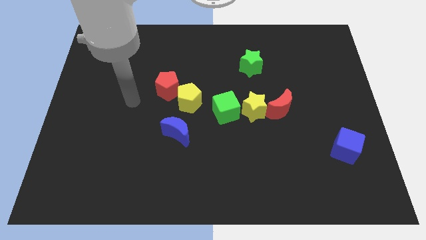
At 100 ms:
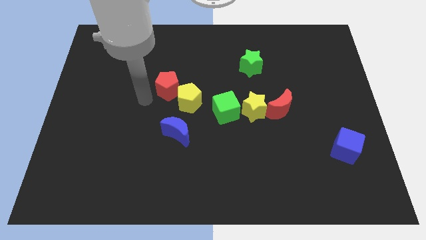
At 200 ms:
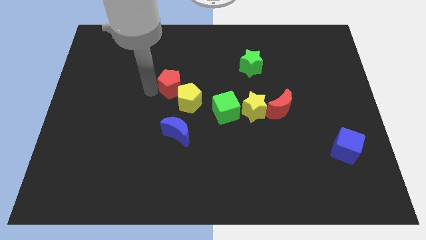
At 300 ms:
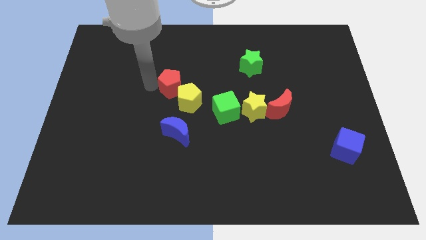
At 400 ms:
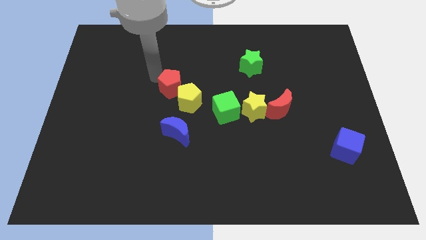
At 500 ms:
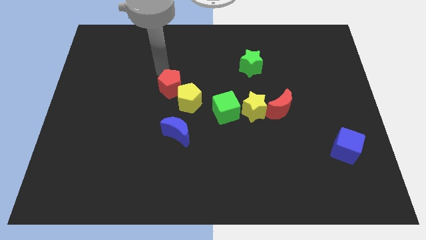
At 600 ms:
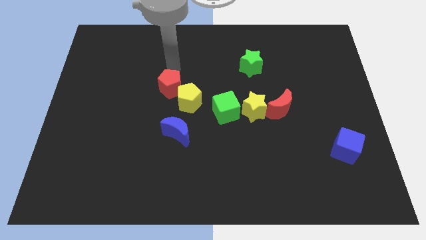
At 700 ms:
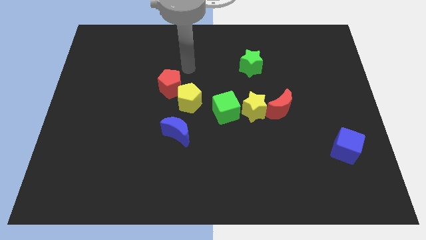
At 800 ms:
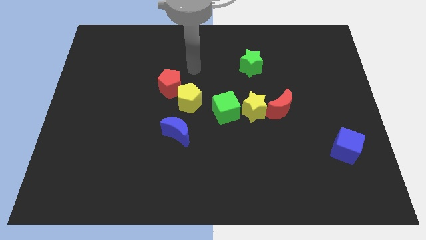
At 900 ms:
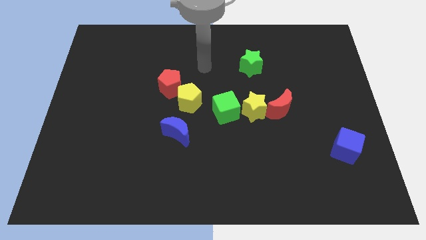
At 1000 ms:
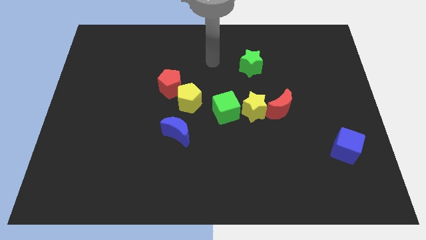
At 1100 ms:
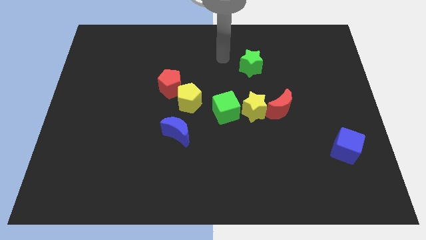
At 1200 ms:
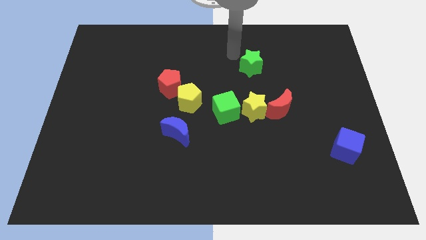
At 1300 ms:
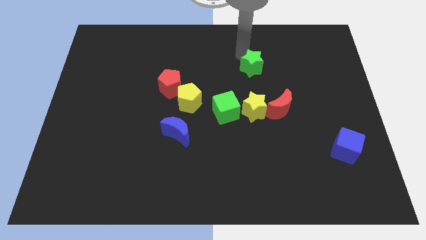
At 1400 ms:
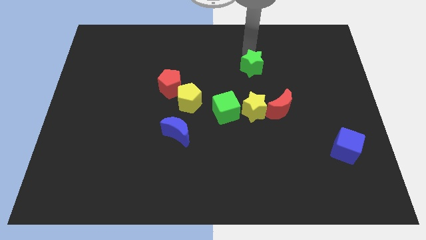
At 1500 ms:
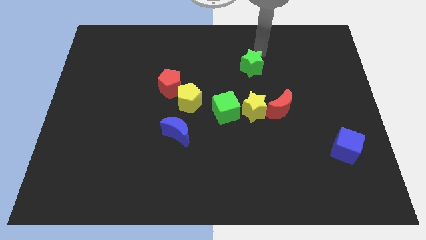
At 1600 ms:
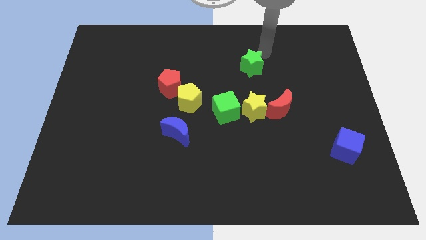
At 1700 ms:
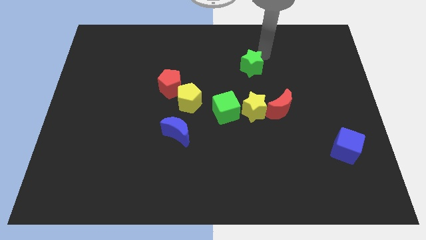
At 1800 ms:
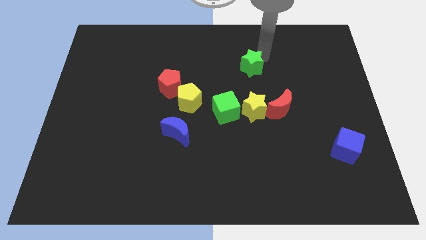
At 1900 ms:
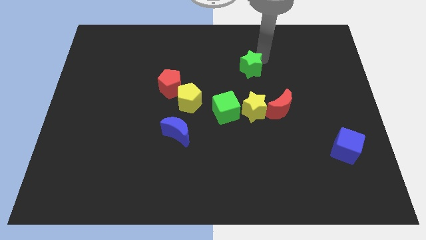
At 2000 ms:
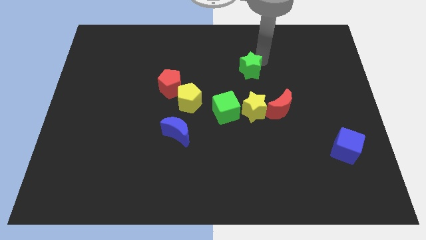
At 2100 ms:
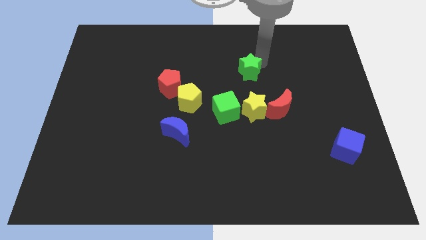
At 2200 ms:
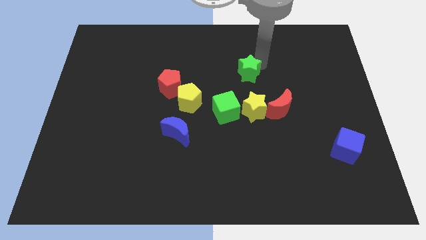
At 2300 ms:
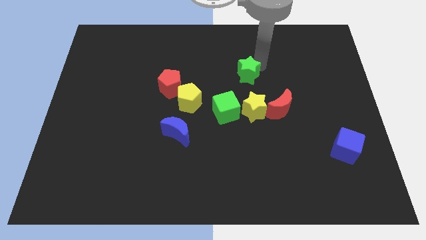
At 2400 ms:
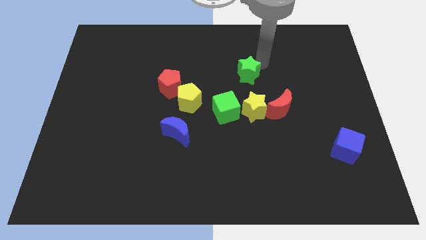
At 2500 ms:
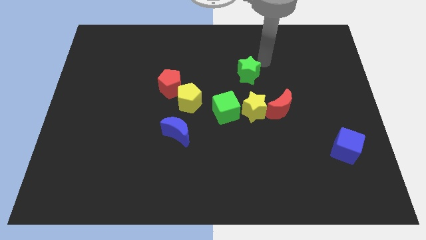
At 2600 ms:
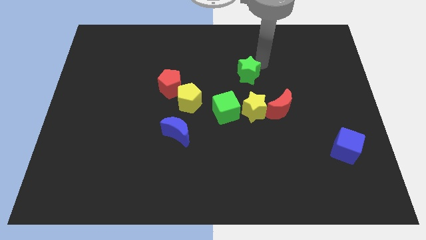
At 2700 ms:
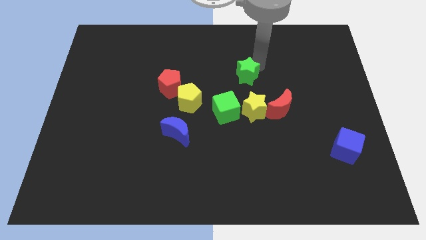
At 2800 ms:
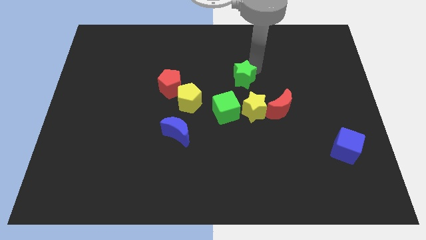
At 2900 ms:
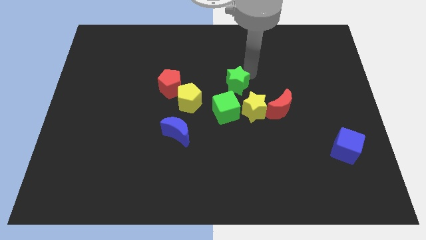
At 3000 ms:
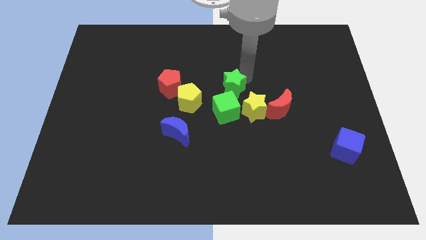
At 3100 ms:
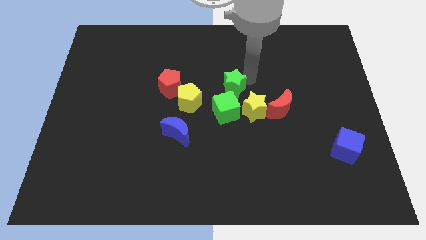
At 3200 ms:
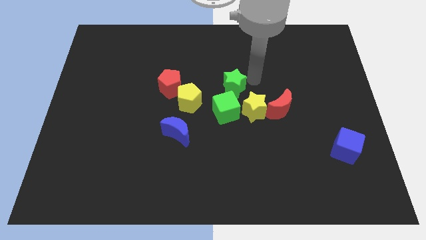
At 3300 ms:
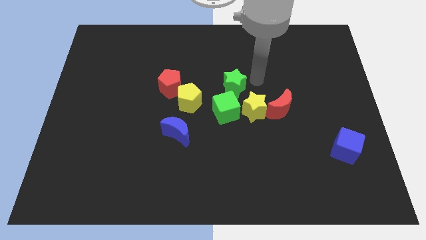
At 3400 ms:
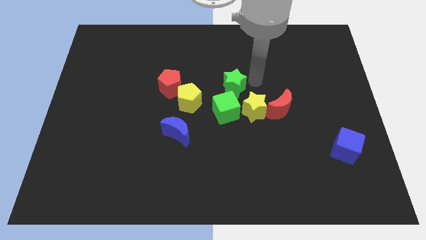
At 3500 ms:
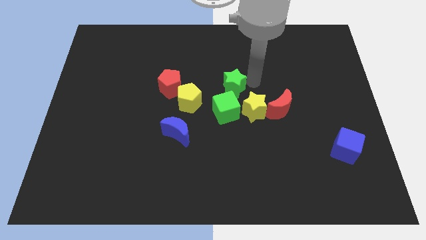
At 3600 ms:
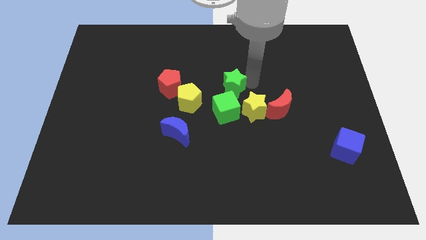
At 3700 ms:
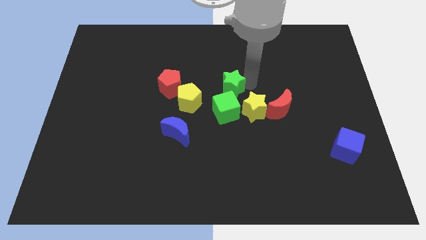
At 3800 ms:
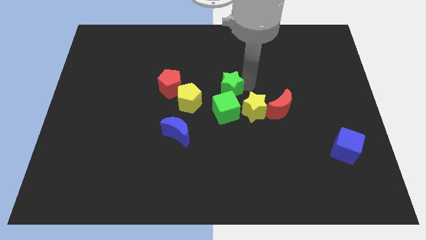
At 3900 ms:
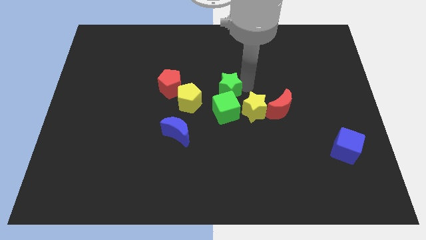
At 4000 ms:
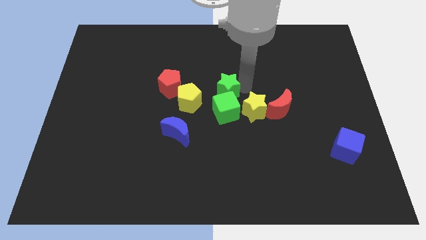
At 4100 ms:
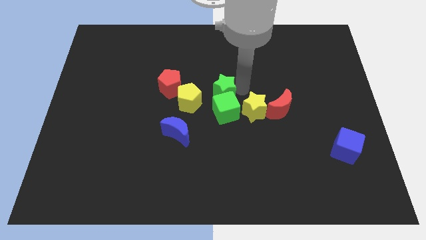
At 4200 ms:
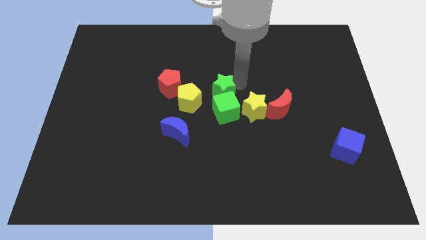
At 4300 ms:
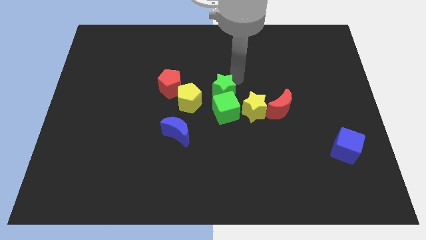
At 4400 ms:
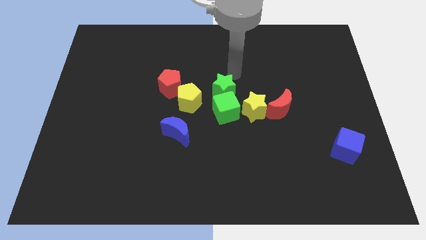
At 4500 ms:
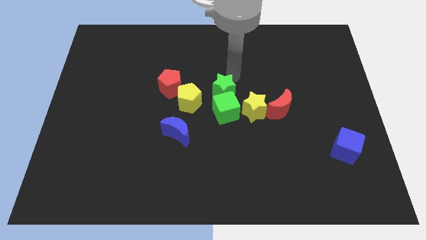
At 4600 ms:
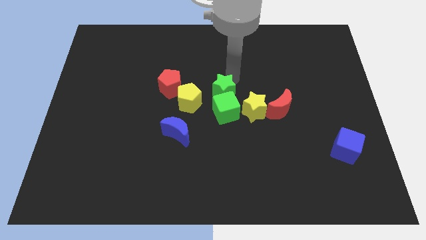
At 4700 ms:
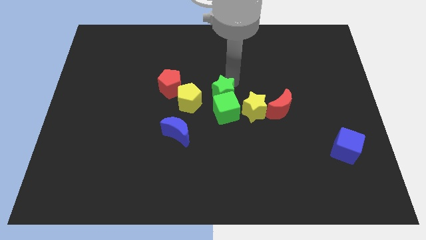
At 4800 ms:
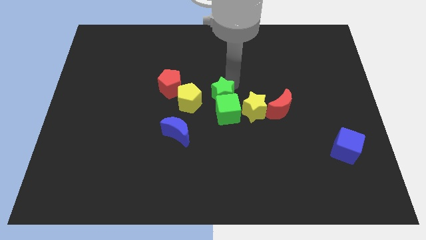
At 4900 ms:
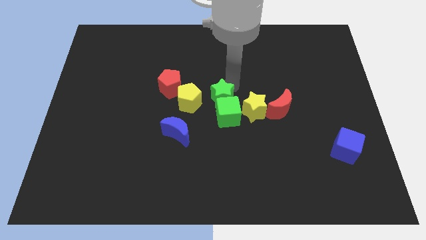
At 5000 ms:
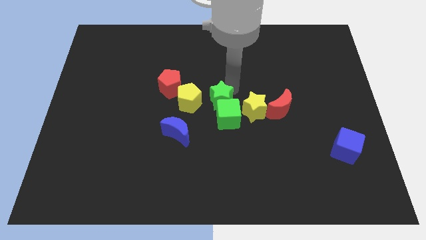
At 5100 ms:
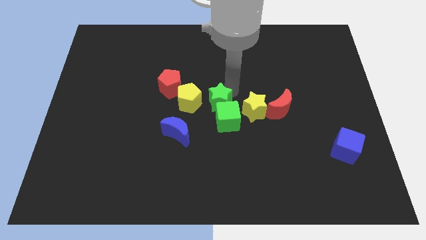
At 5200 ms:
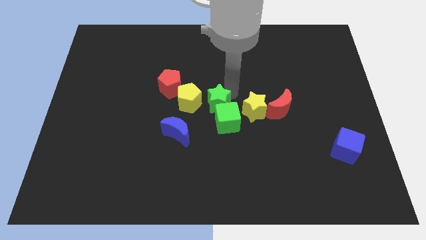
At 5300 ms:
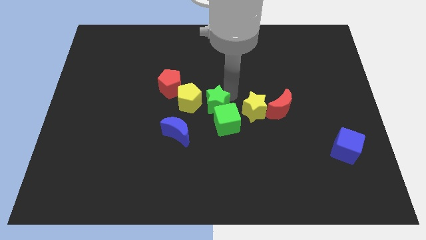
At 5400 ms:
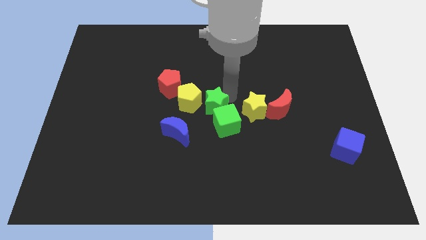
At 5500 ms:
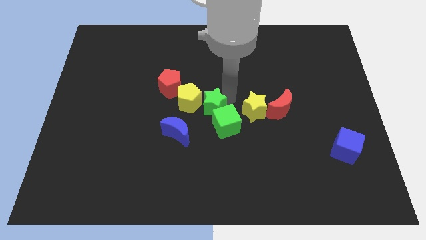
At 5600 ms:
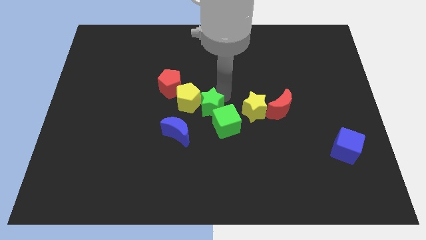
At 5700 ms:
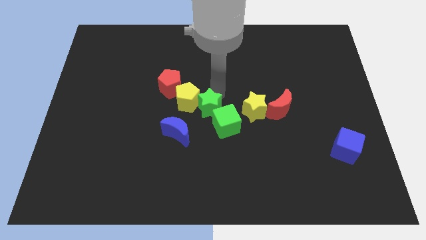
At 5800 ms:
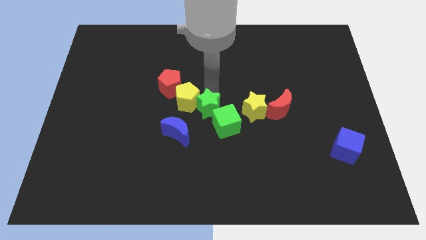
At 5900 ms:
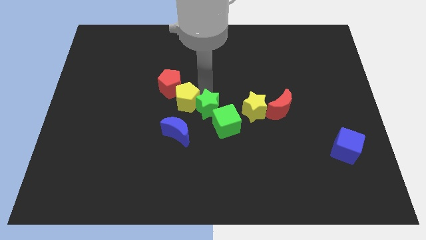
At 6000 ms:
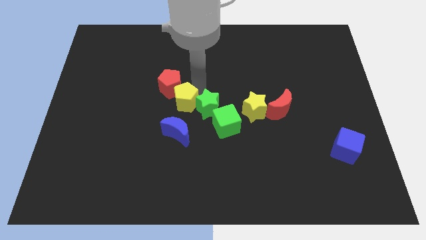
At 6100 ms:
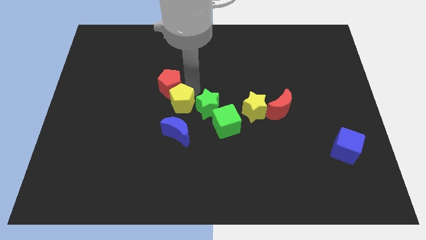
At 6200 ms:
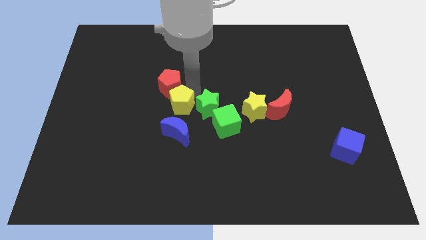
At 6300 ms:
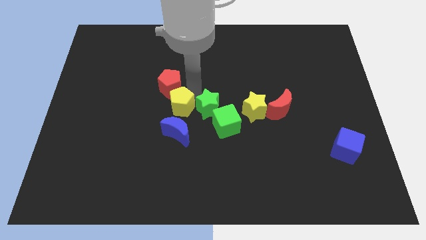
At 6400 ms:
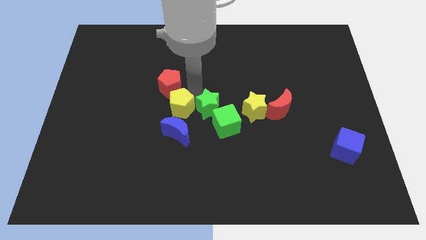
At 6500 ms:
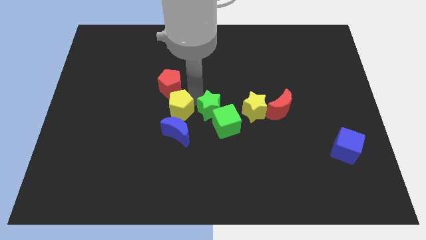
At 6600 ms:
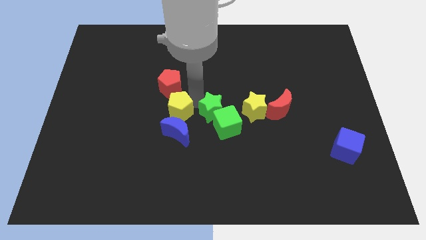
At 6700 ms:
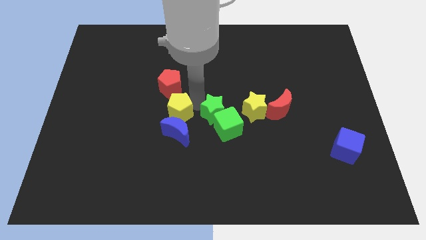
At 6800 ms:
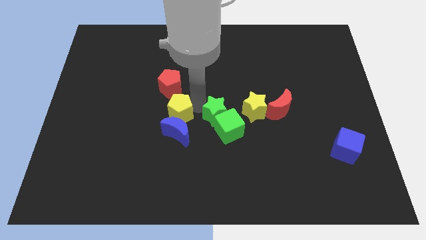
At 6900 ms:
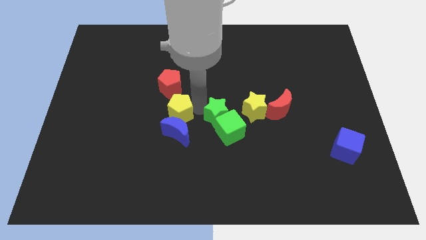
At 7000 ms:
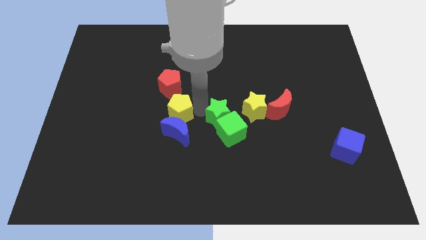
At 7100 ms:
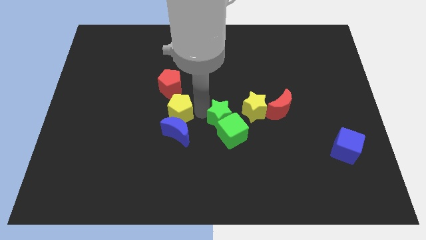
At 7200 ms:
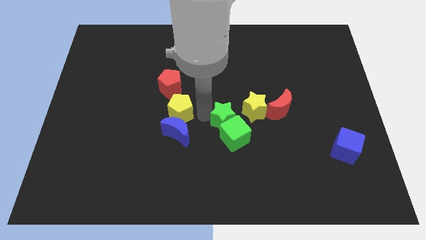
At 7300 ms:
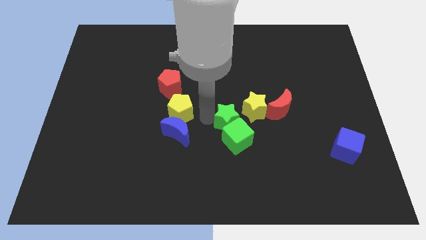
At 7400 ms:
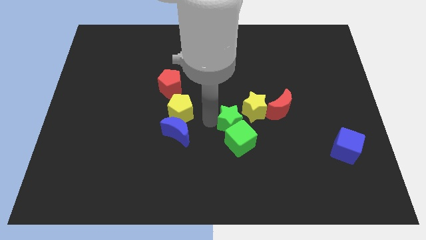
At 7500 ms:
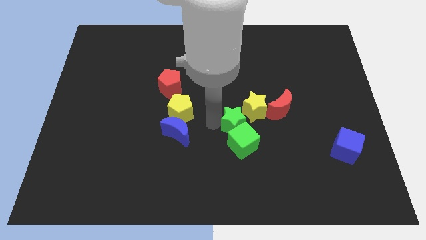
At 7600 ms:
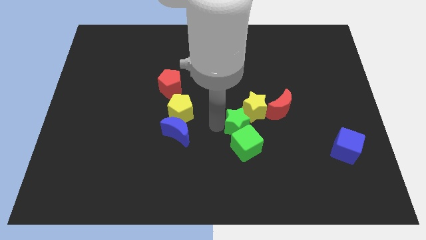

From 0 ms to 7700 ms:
put the green star to the bottom of the yellow star
